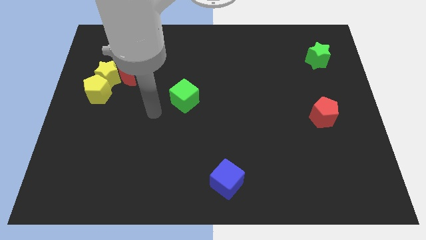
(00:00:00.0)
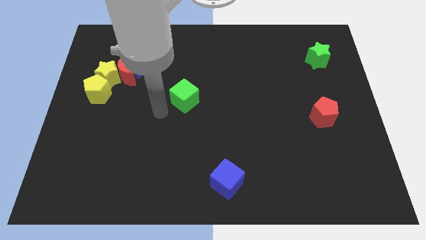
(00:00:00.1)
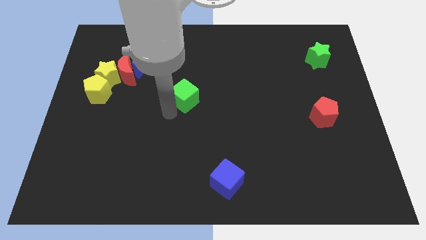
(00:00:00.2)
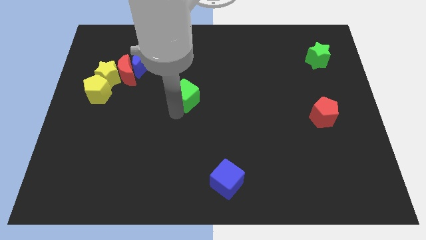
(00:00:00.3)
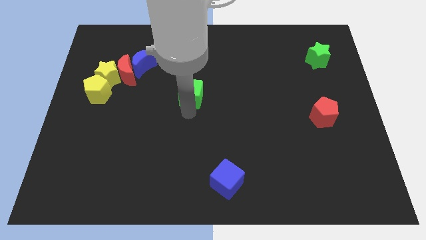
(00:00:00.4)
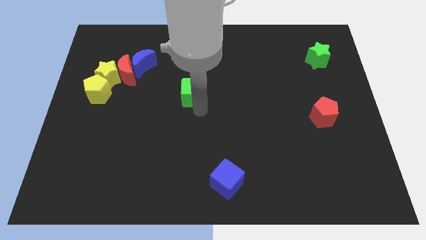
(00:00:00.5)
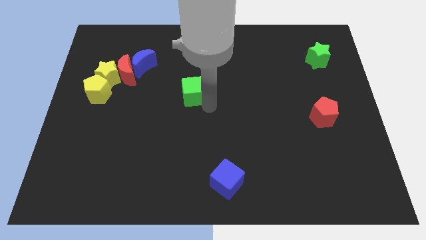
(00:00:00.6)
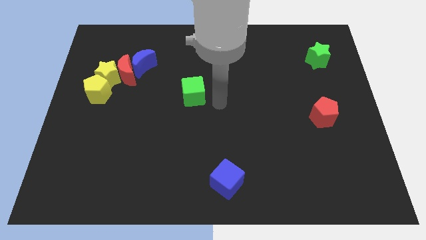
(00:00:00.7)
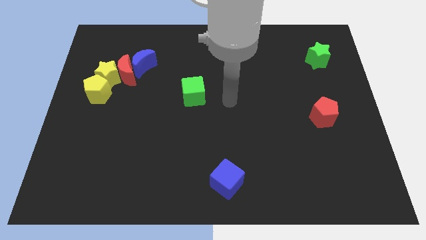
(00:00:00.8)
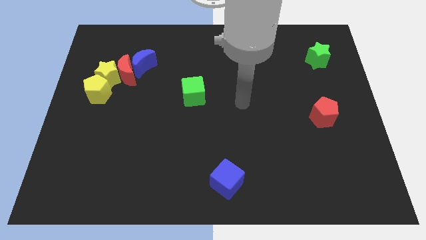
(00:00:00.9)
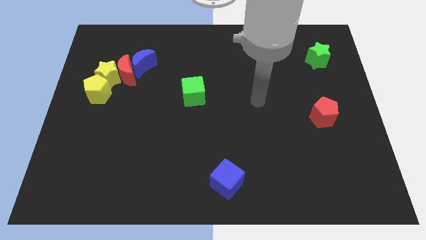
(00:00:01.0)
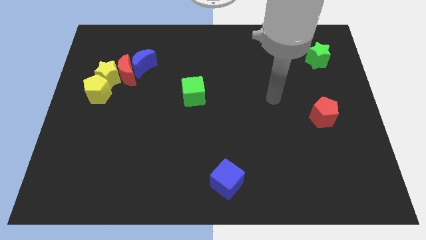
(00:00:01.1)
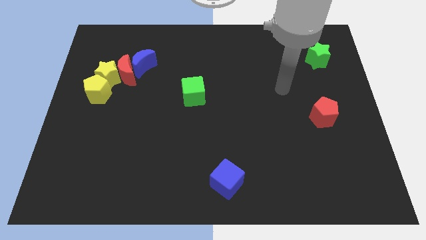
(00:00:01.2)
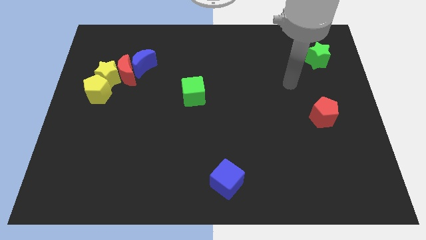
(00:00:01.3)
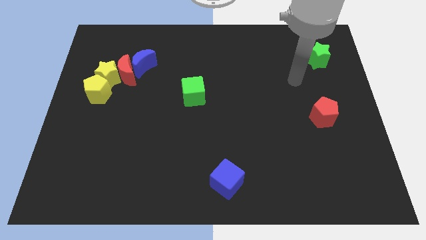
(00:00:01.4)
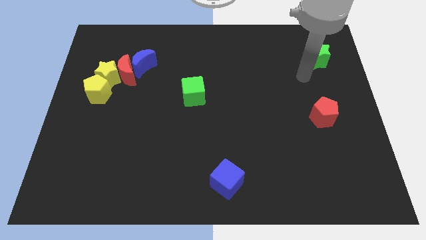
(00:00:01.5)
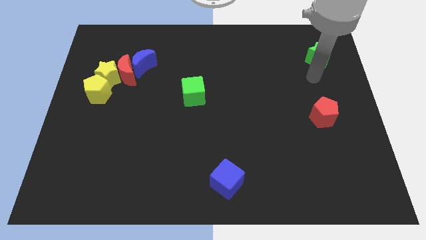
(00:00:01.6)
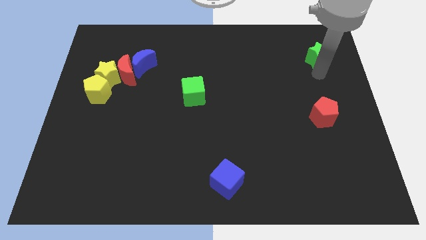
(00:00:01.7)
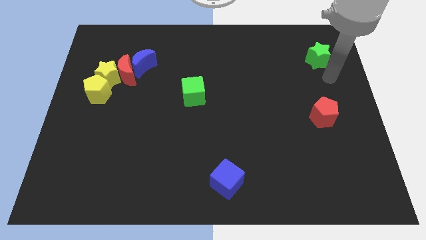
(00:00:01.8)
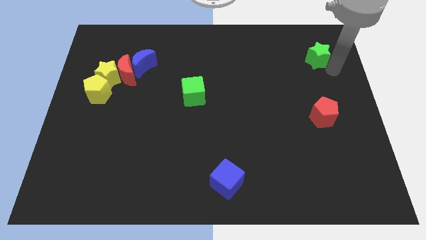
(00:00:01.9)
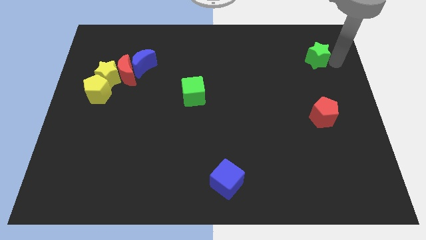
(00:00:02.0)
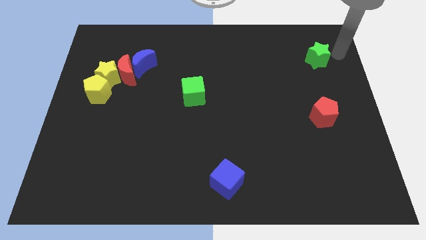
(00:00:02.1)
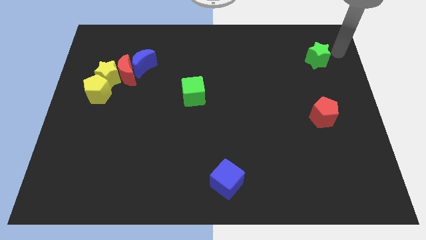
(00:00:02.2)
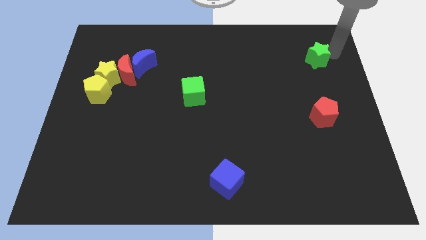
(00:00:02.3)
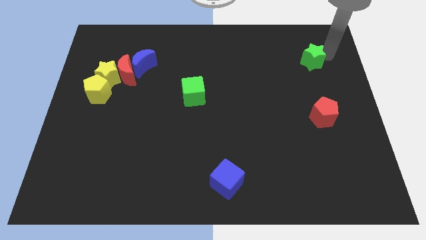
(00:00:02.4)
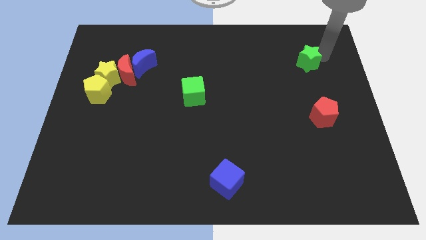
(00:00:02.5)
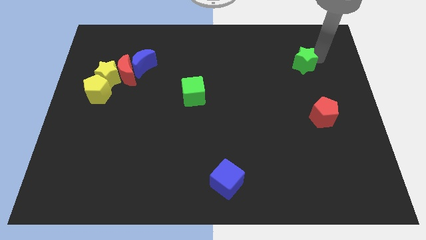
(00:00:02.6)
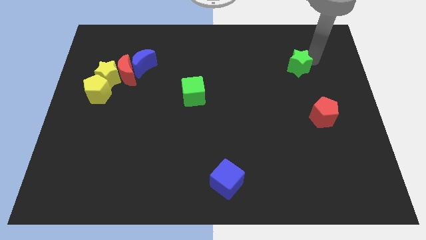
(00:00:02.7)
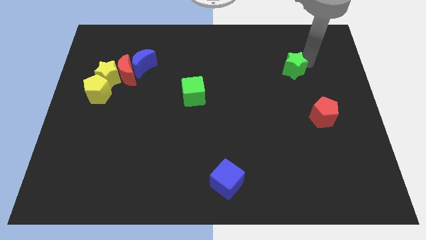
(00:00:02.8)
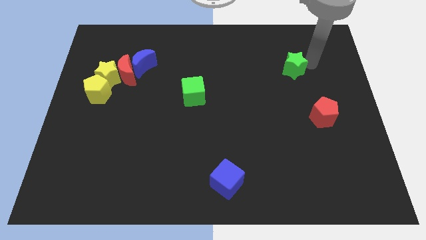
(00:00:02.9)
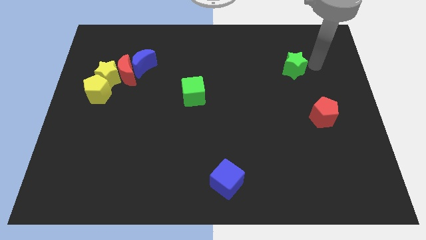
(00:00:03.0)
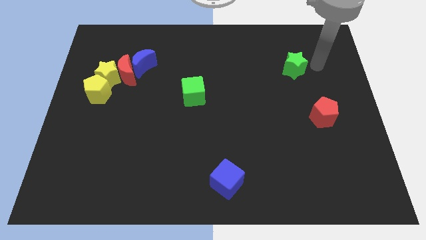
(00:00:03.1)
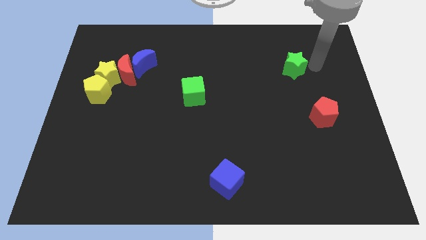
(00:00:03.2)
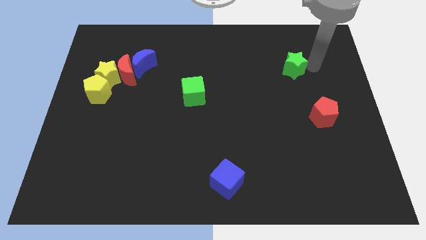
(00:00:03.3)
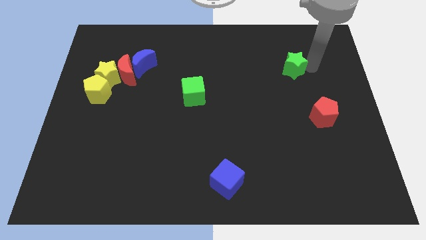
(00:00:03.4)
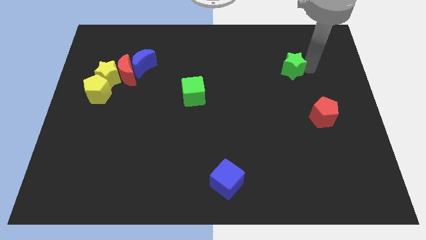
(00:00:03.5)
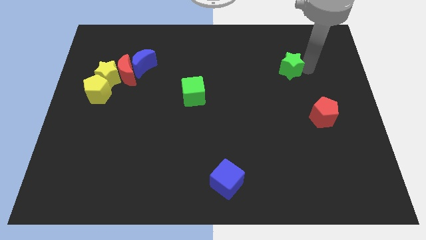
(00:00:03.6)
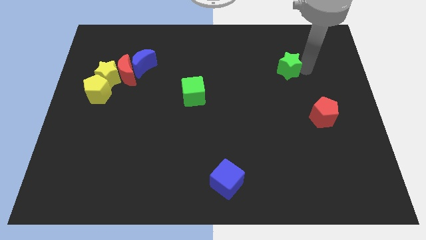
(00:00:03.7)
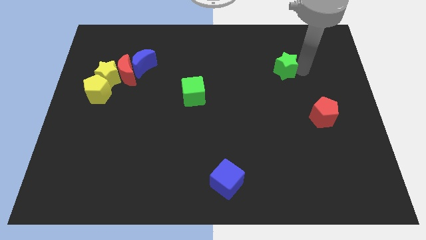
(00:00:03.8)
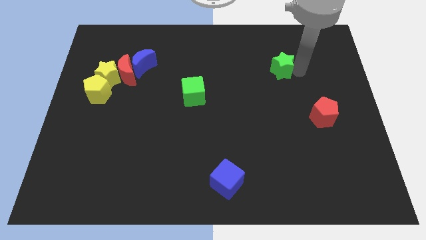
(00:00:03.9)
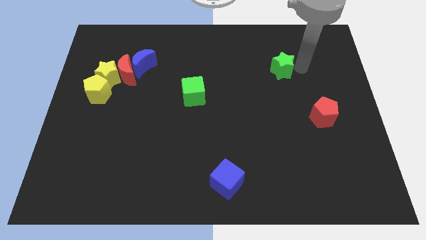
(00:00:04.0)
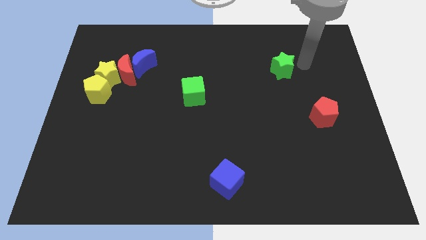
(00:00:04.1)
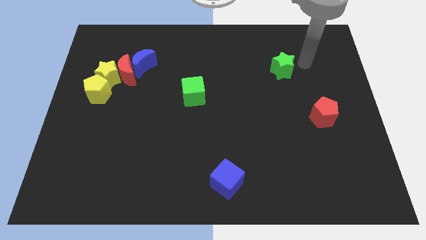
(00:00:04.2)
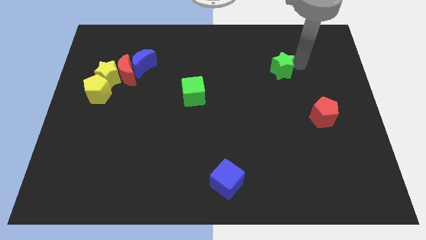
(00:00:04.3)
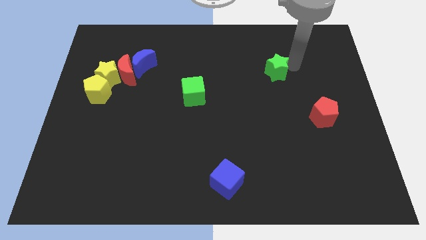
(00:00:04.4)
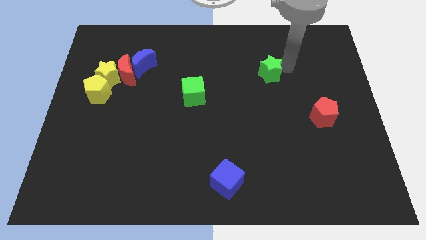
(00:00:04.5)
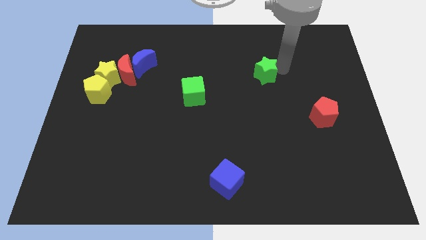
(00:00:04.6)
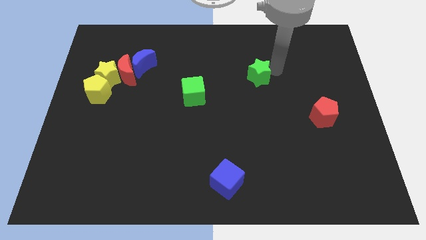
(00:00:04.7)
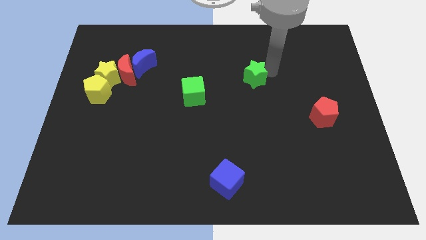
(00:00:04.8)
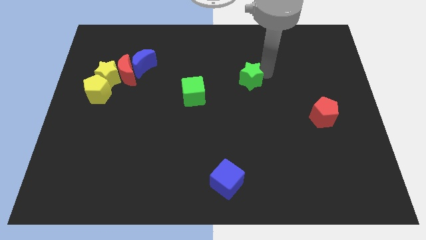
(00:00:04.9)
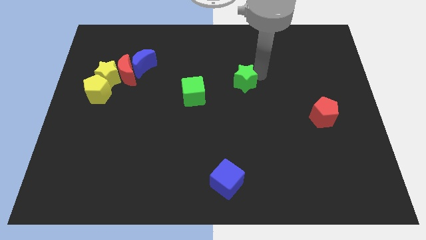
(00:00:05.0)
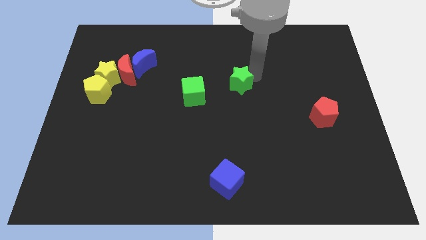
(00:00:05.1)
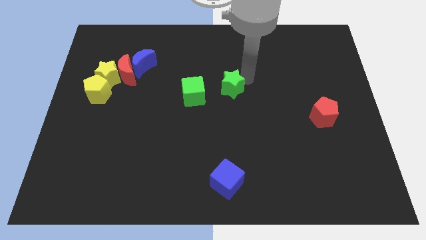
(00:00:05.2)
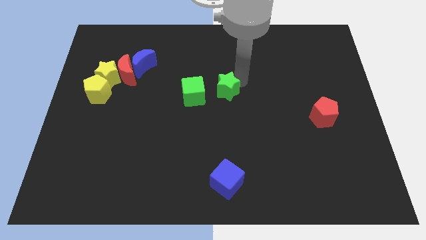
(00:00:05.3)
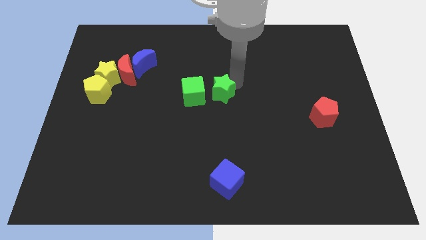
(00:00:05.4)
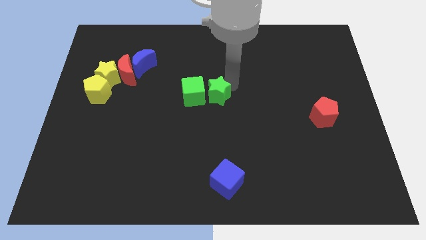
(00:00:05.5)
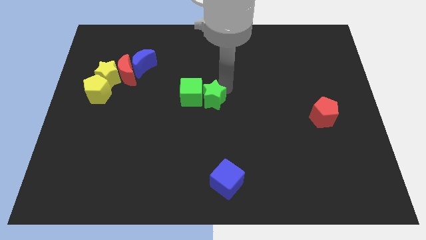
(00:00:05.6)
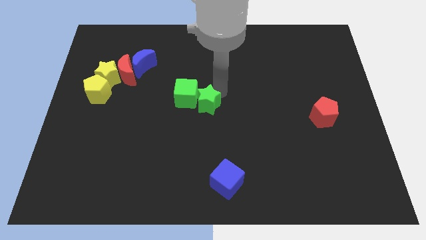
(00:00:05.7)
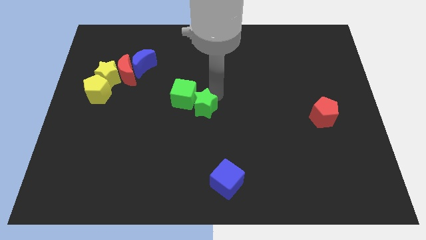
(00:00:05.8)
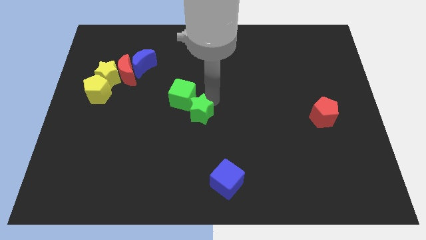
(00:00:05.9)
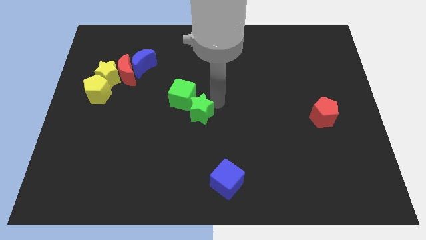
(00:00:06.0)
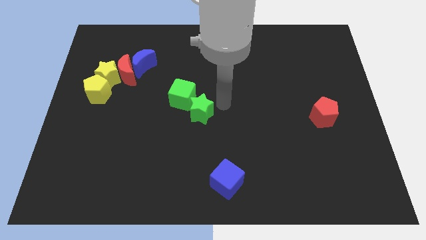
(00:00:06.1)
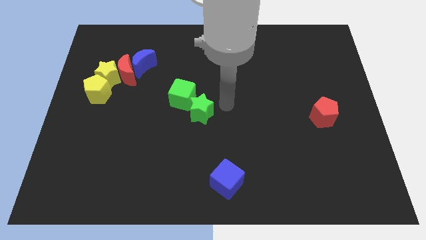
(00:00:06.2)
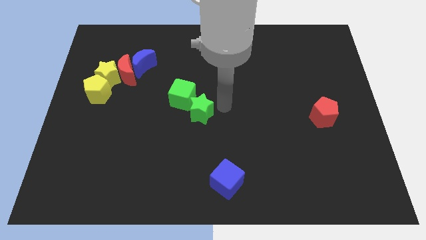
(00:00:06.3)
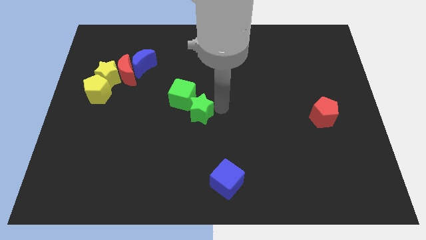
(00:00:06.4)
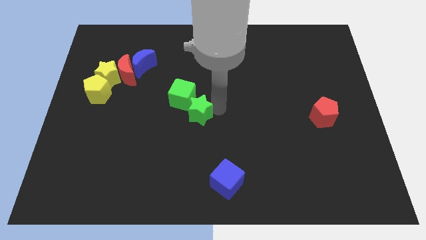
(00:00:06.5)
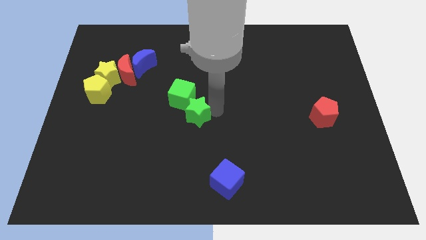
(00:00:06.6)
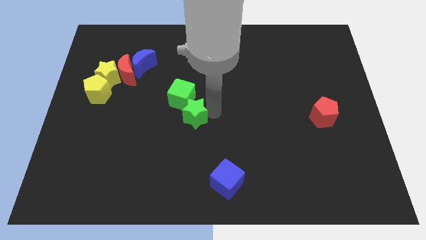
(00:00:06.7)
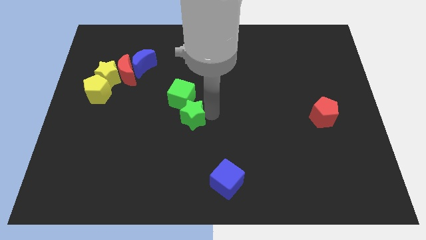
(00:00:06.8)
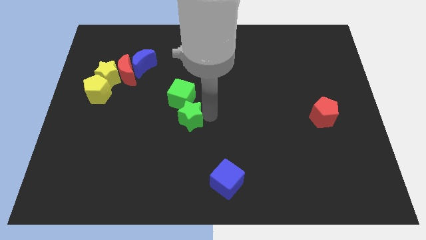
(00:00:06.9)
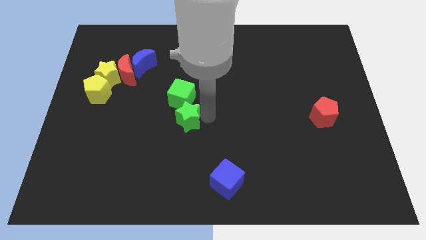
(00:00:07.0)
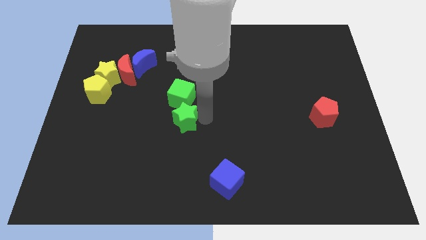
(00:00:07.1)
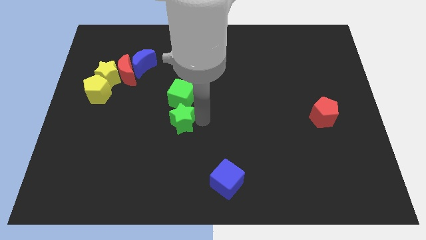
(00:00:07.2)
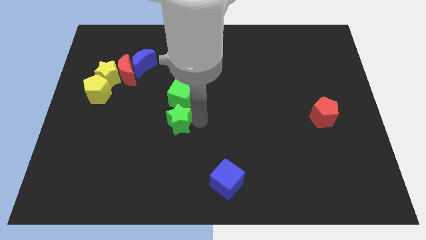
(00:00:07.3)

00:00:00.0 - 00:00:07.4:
slide the green star to the bottom left side of the green cube

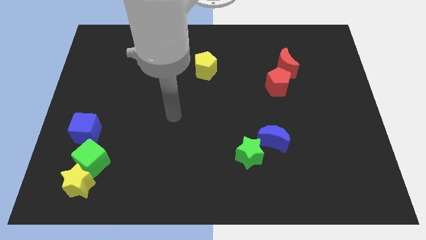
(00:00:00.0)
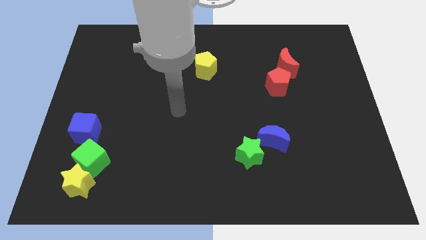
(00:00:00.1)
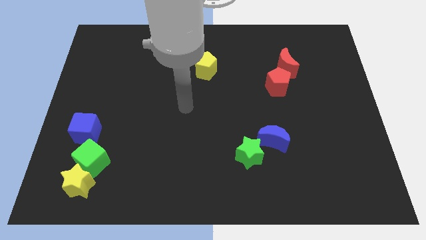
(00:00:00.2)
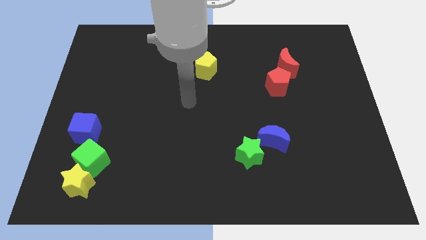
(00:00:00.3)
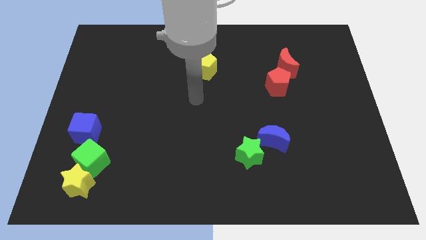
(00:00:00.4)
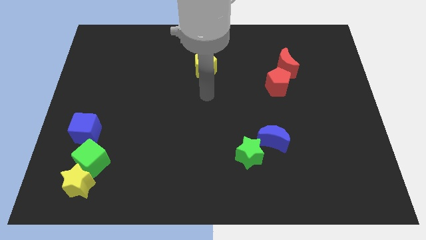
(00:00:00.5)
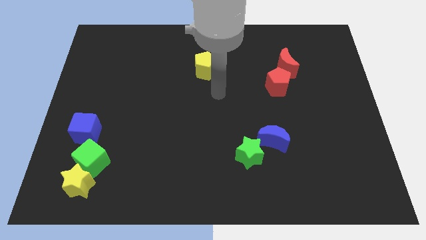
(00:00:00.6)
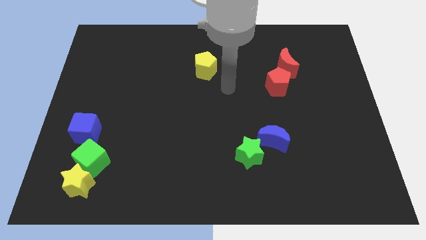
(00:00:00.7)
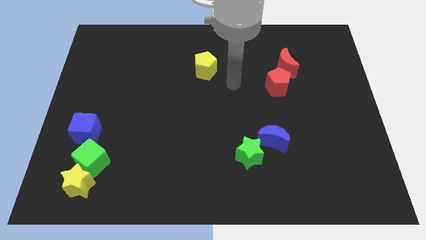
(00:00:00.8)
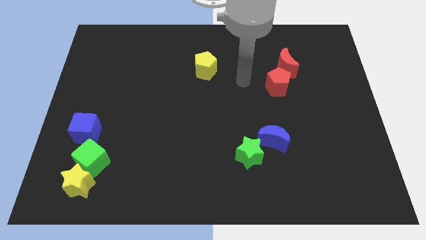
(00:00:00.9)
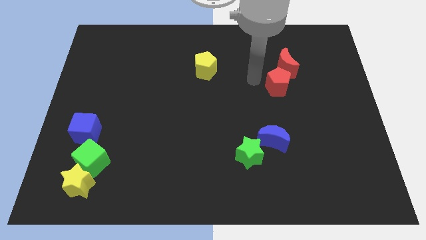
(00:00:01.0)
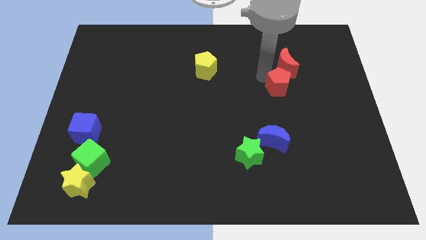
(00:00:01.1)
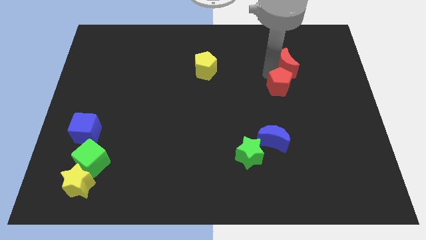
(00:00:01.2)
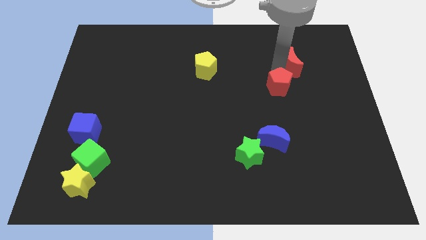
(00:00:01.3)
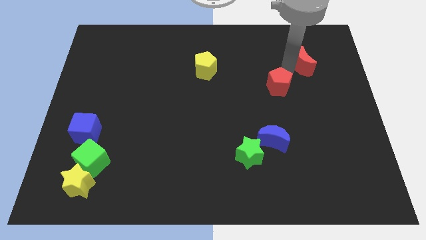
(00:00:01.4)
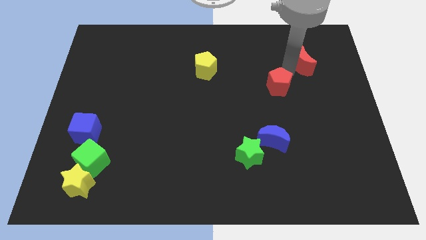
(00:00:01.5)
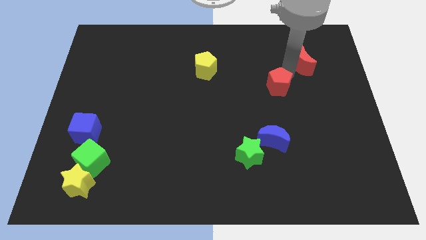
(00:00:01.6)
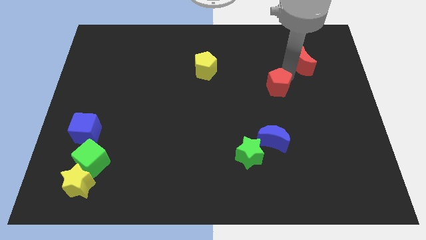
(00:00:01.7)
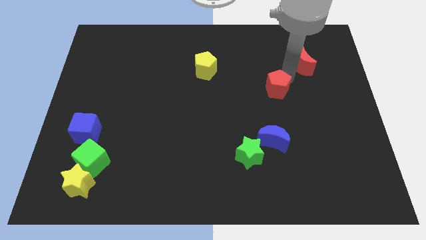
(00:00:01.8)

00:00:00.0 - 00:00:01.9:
put the red pentagon above the blue moon
